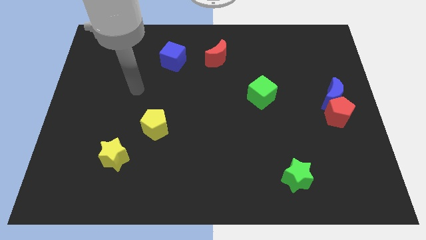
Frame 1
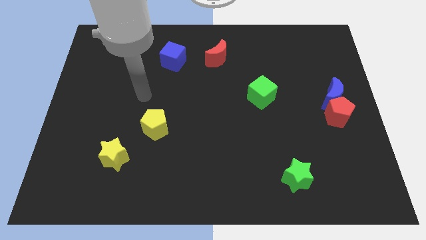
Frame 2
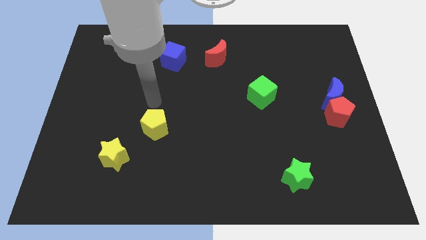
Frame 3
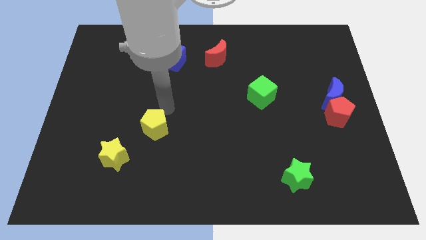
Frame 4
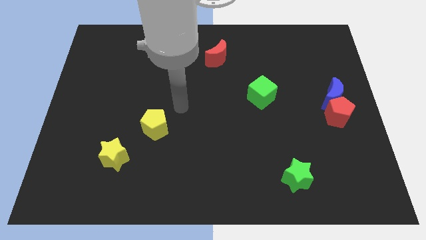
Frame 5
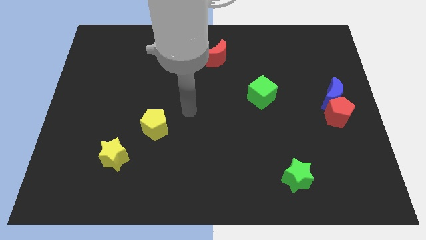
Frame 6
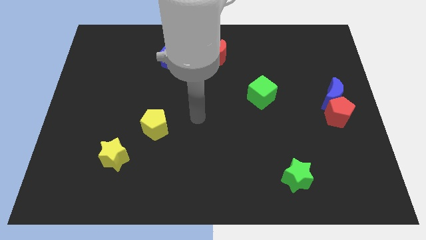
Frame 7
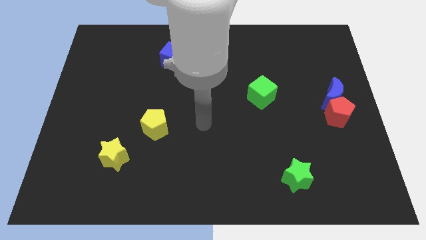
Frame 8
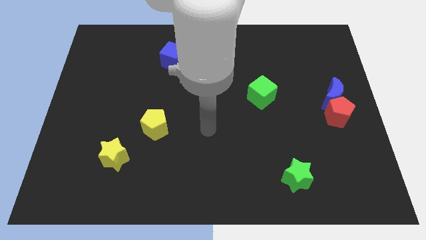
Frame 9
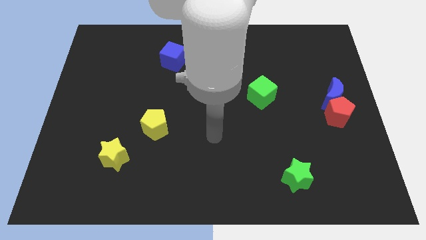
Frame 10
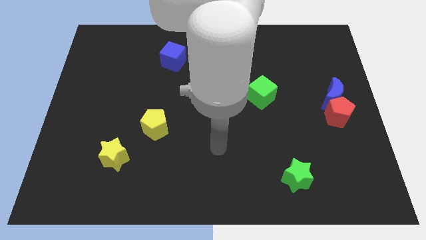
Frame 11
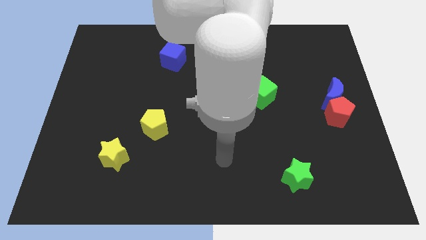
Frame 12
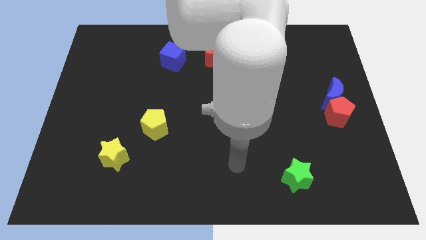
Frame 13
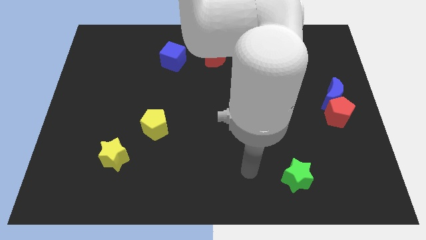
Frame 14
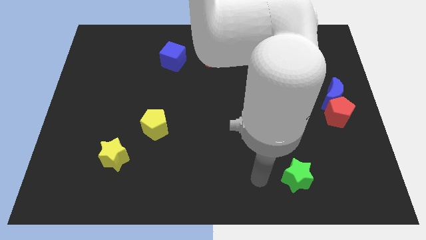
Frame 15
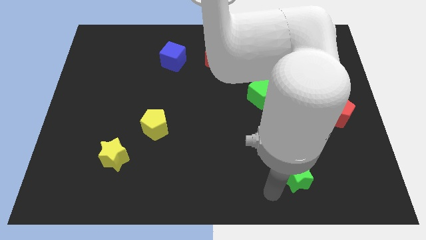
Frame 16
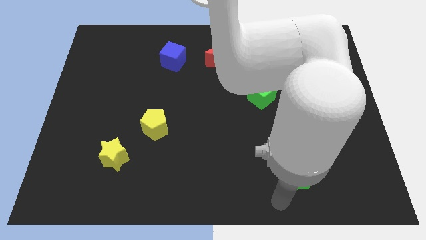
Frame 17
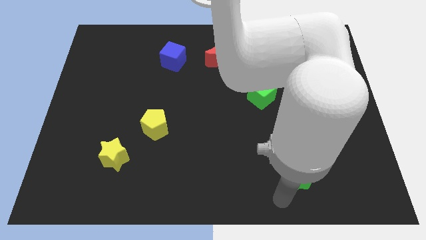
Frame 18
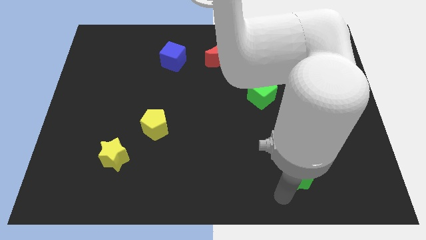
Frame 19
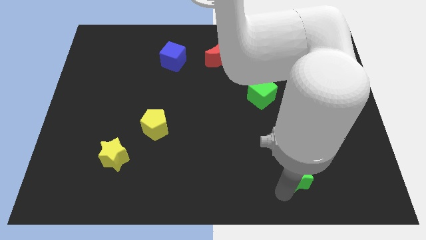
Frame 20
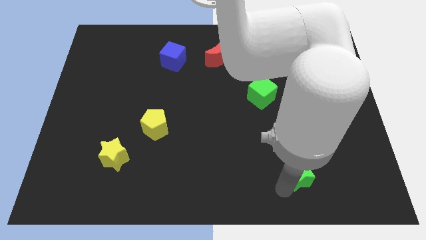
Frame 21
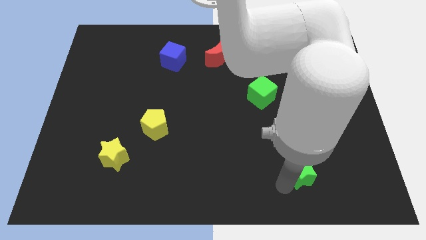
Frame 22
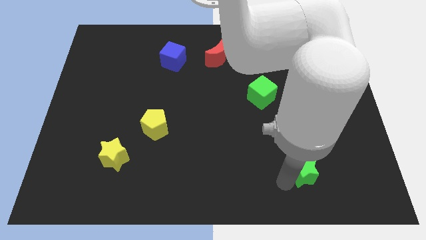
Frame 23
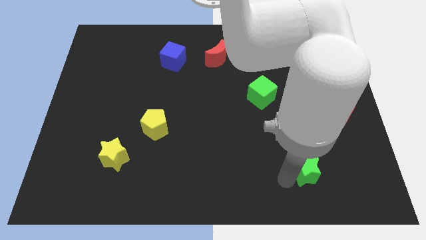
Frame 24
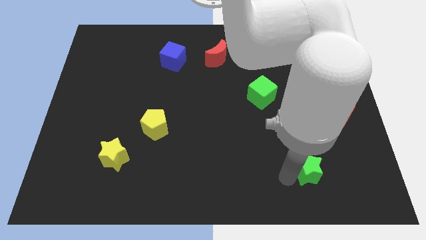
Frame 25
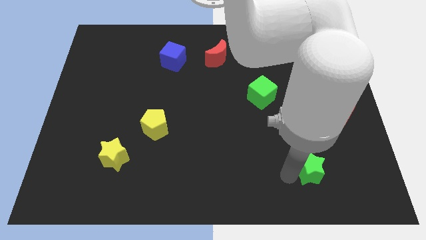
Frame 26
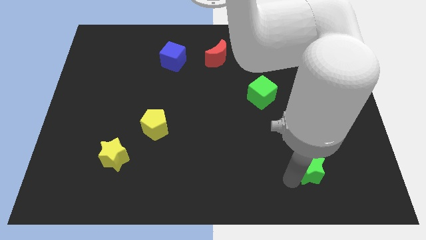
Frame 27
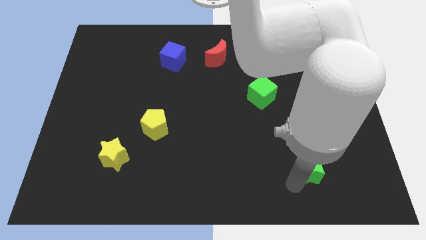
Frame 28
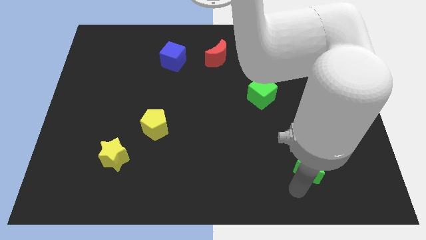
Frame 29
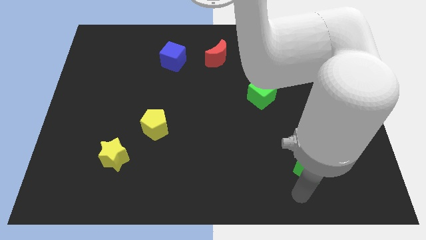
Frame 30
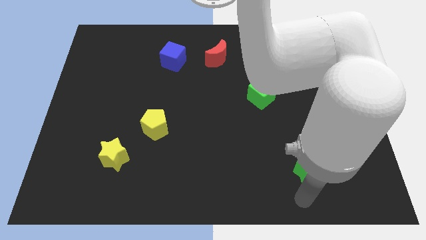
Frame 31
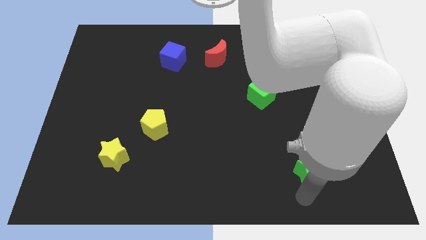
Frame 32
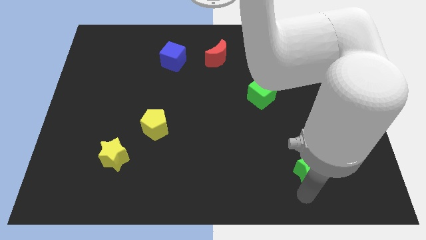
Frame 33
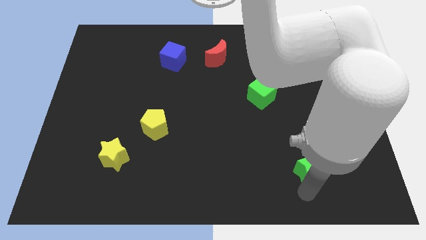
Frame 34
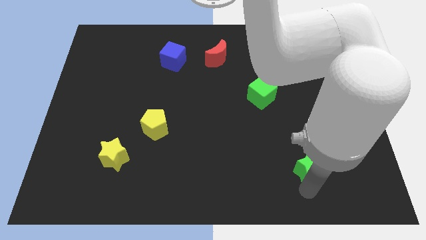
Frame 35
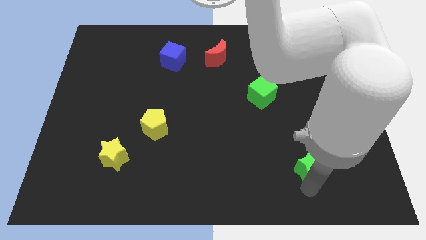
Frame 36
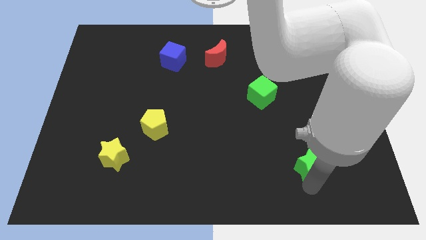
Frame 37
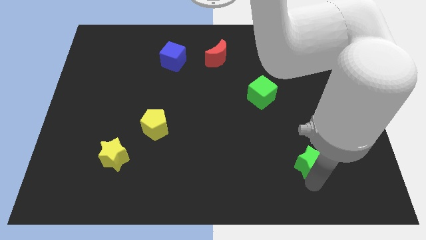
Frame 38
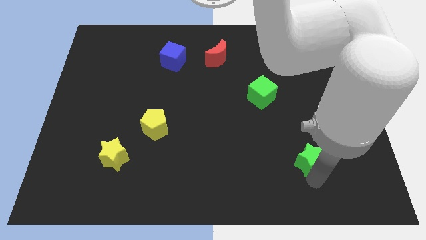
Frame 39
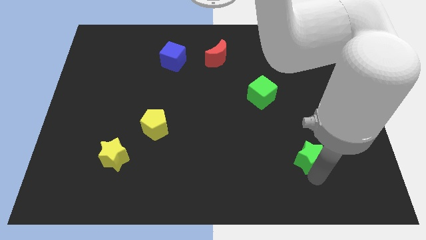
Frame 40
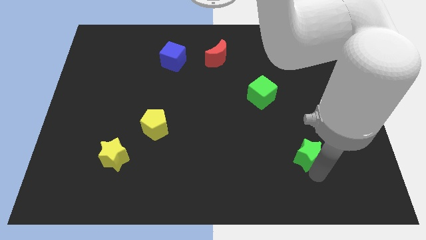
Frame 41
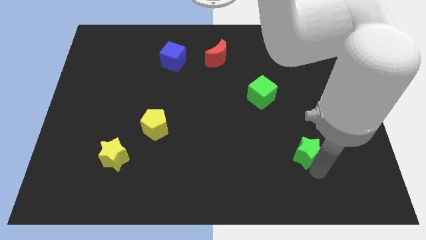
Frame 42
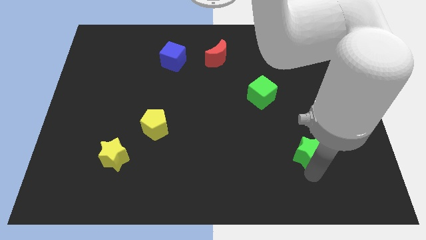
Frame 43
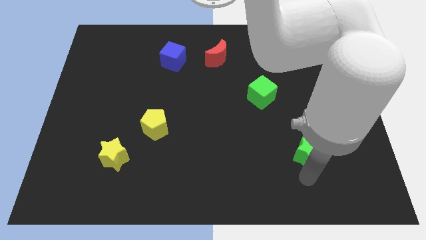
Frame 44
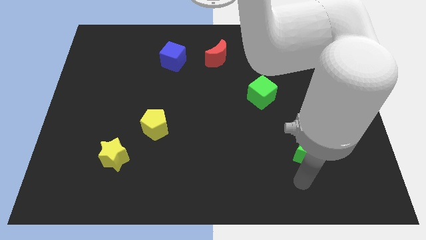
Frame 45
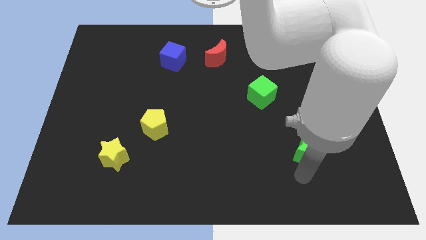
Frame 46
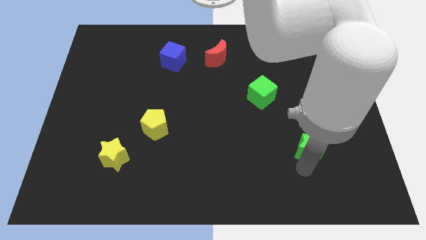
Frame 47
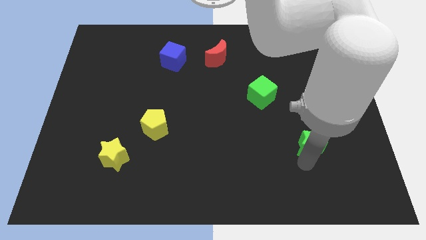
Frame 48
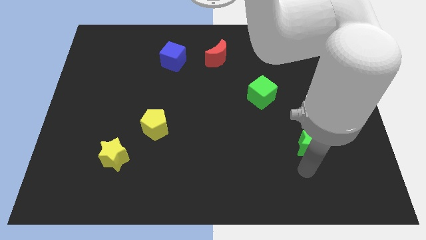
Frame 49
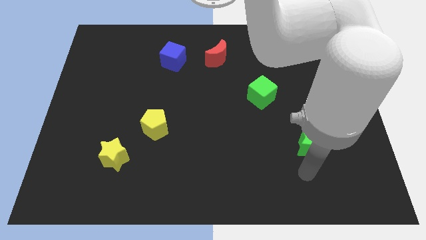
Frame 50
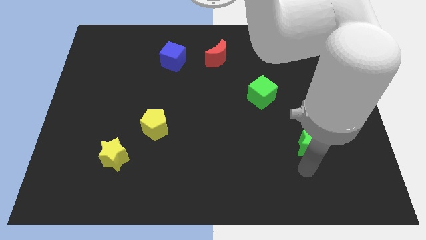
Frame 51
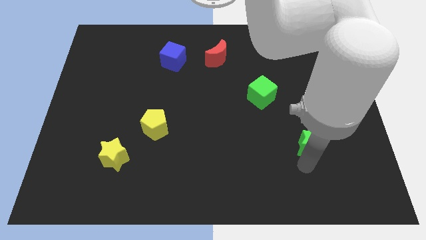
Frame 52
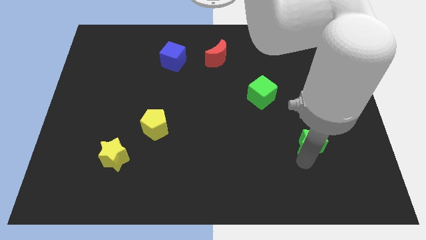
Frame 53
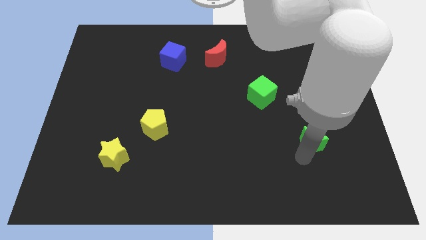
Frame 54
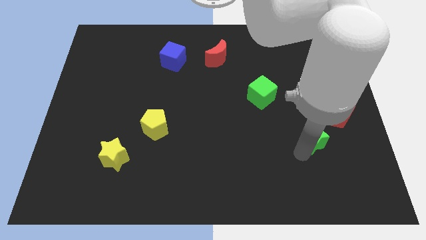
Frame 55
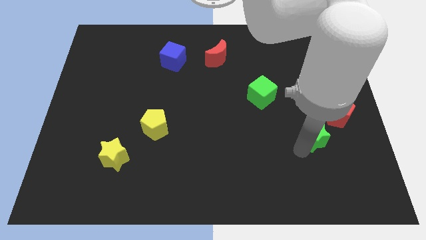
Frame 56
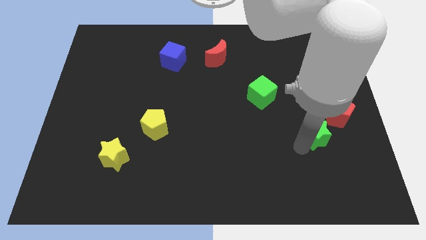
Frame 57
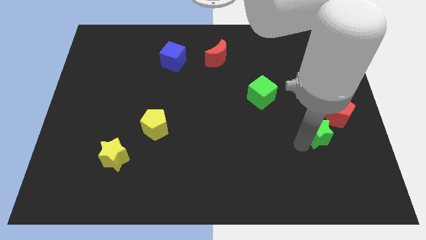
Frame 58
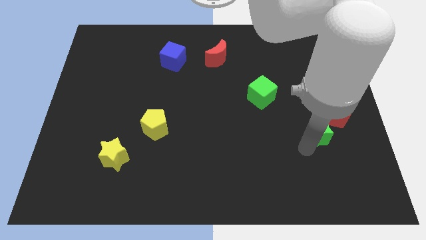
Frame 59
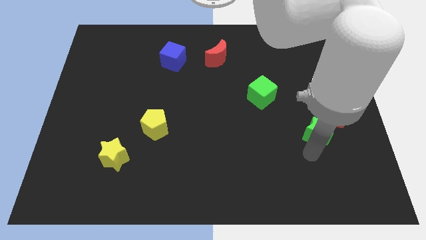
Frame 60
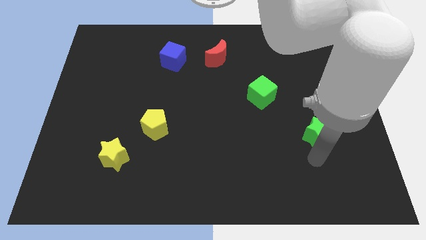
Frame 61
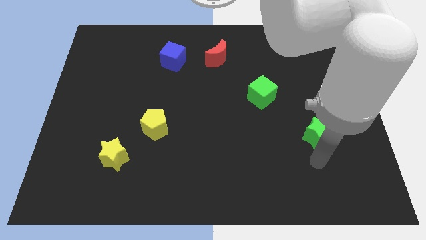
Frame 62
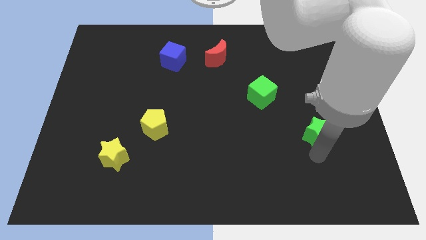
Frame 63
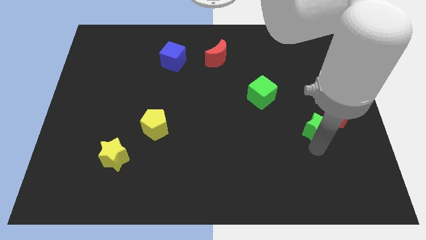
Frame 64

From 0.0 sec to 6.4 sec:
slide the green star diagonally down and to the left of the blue moon
